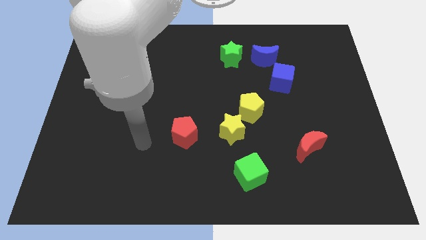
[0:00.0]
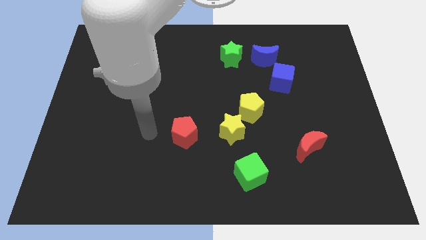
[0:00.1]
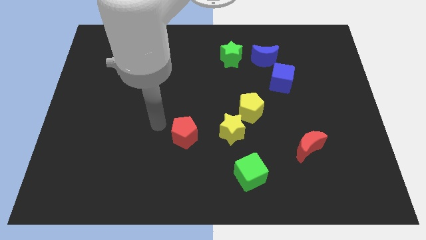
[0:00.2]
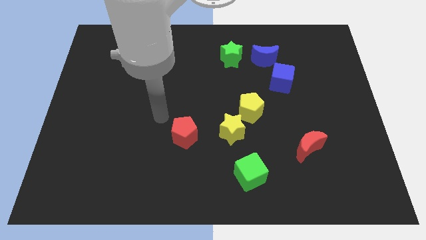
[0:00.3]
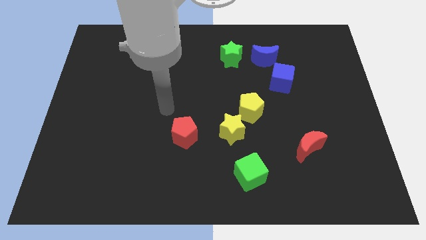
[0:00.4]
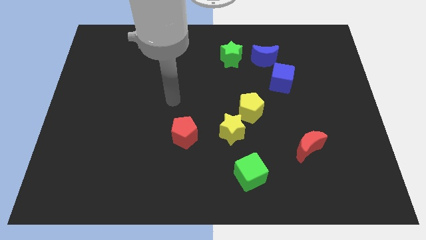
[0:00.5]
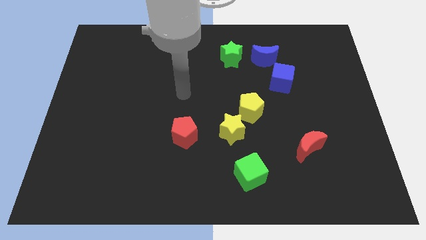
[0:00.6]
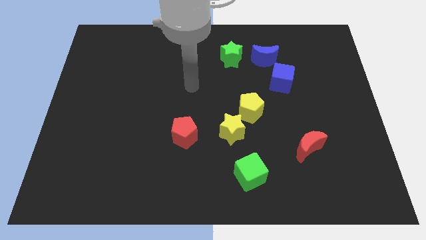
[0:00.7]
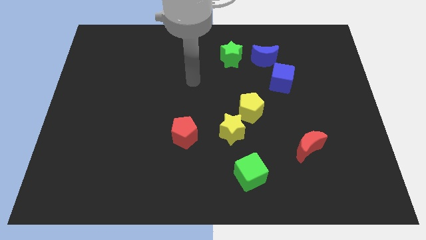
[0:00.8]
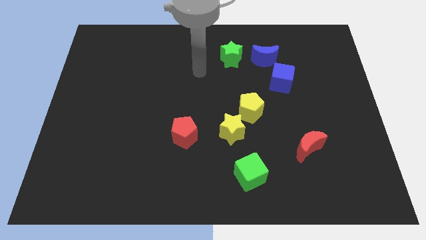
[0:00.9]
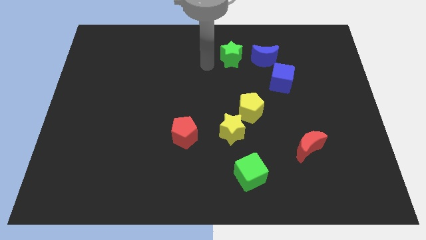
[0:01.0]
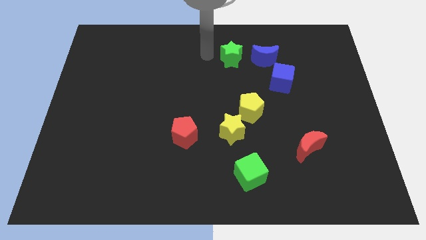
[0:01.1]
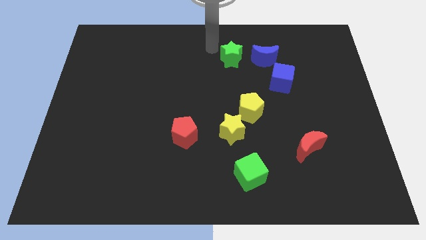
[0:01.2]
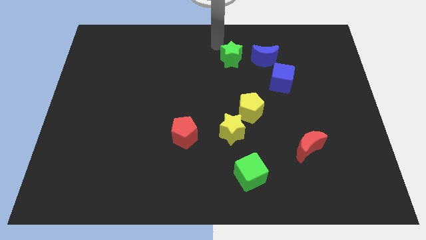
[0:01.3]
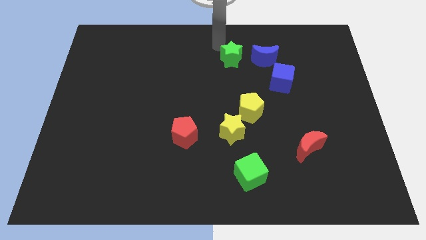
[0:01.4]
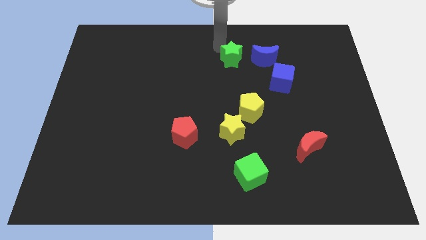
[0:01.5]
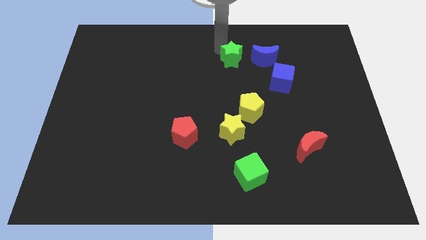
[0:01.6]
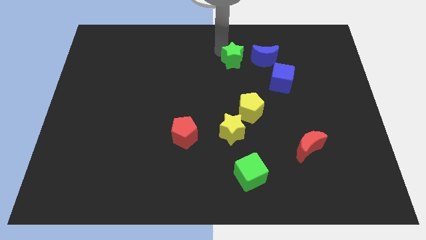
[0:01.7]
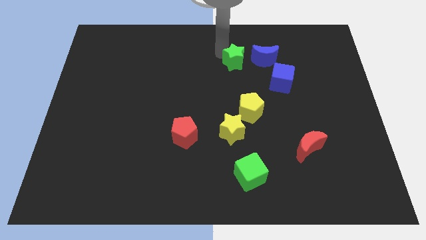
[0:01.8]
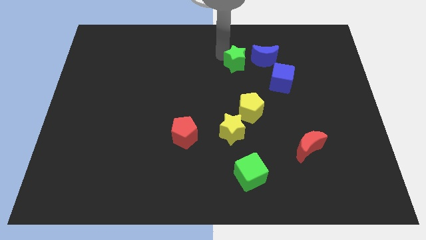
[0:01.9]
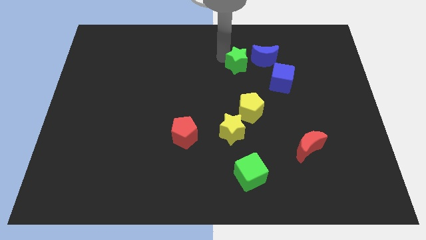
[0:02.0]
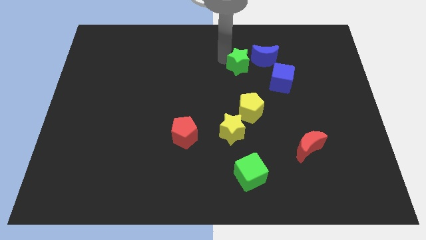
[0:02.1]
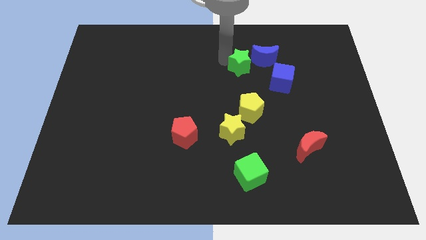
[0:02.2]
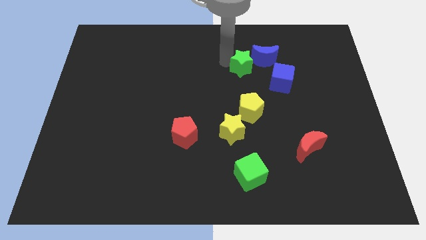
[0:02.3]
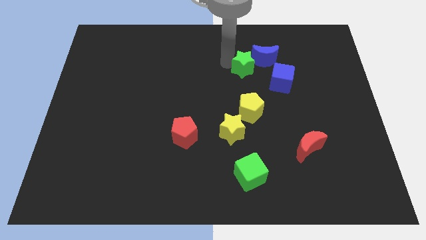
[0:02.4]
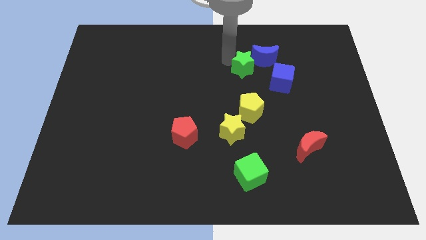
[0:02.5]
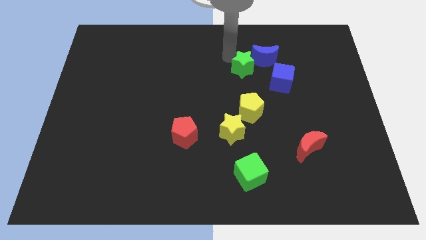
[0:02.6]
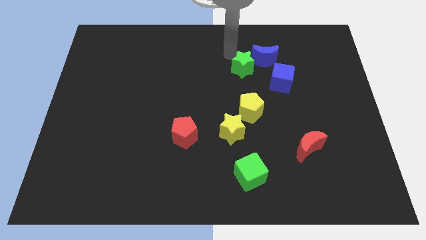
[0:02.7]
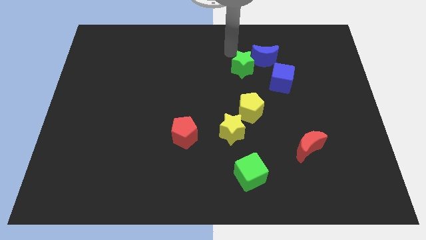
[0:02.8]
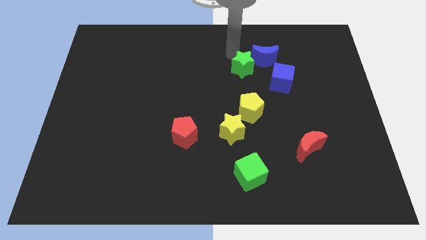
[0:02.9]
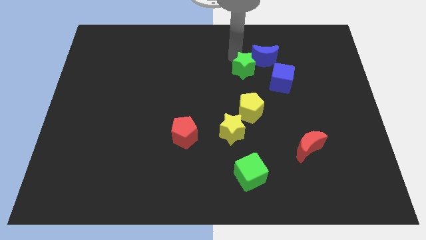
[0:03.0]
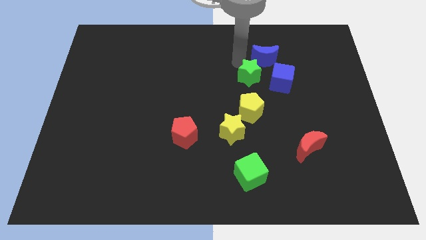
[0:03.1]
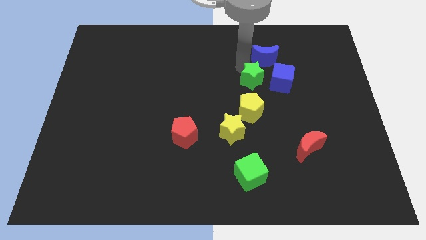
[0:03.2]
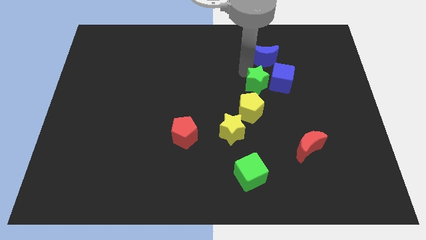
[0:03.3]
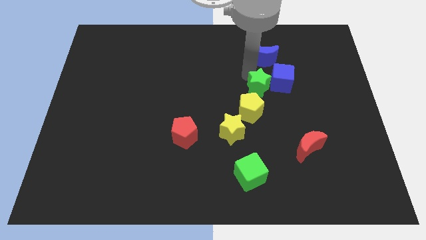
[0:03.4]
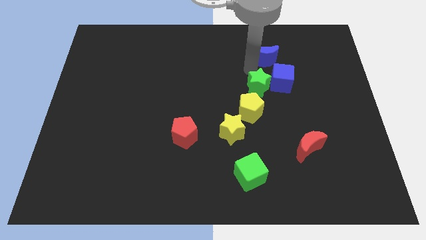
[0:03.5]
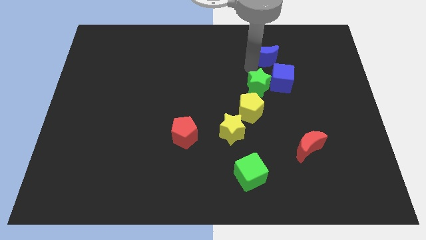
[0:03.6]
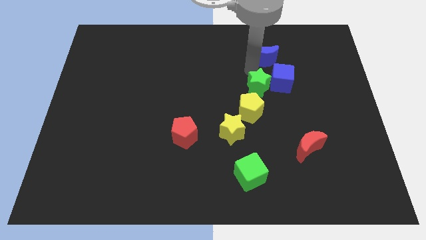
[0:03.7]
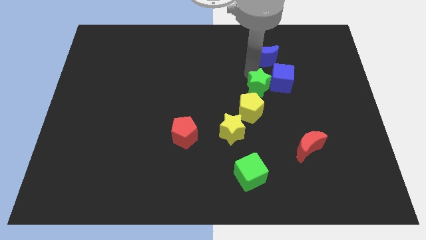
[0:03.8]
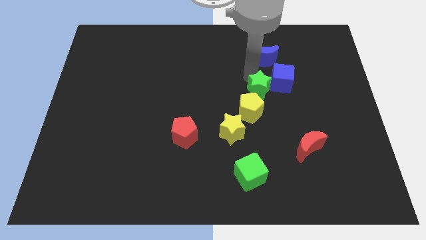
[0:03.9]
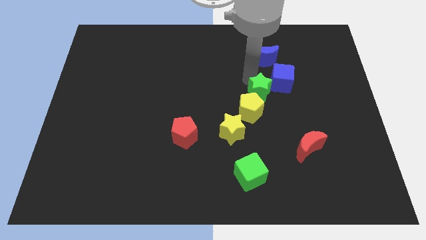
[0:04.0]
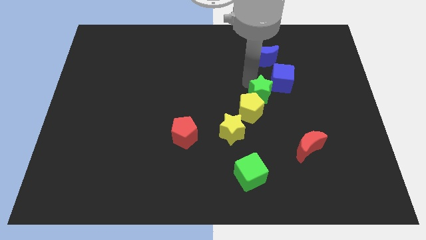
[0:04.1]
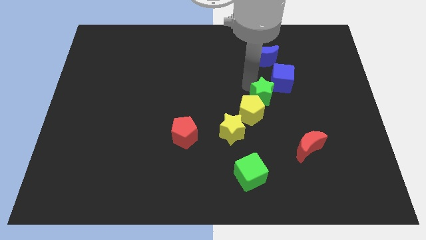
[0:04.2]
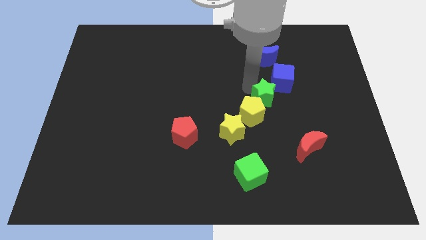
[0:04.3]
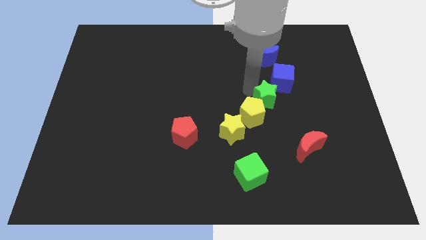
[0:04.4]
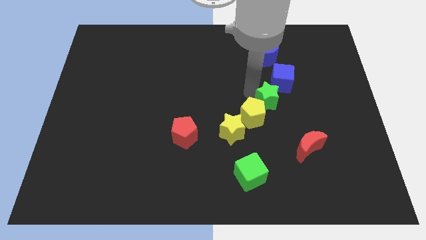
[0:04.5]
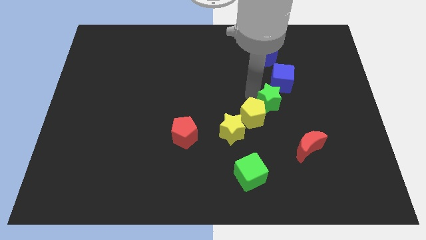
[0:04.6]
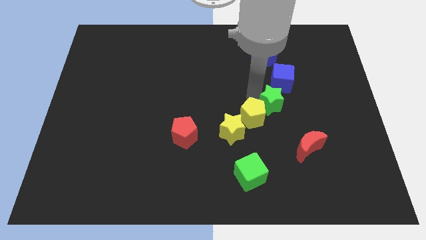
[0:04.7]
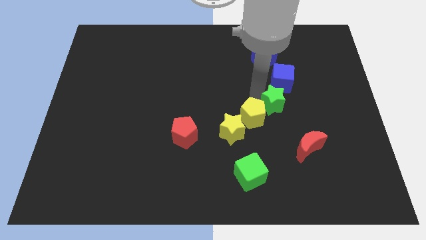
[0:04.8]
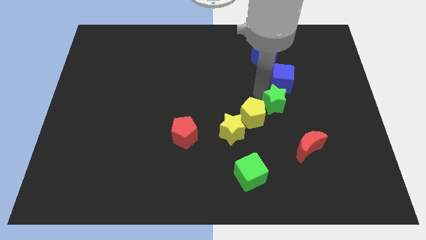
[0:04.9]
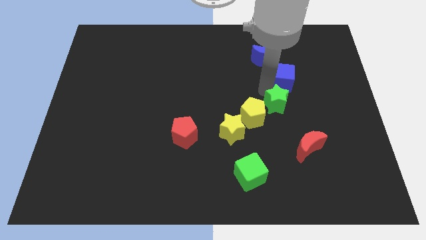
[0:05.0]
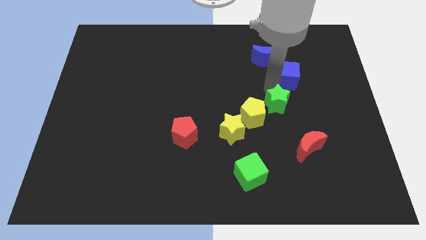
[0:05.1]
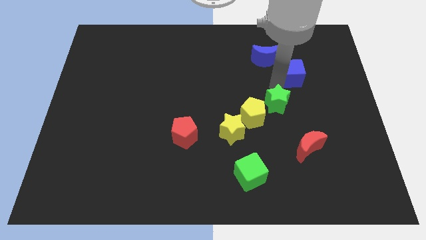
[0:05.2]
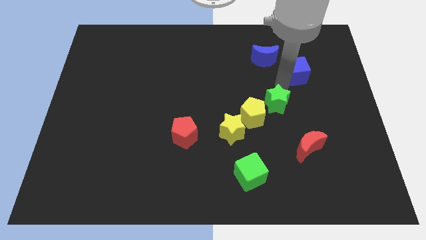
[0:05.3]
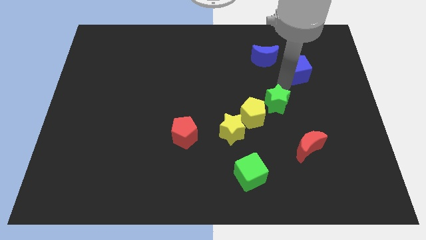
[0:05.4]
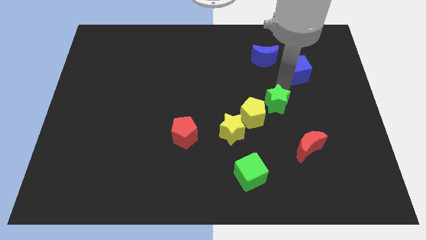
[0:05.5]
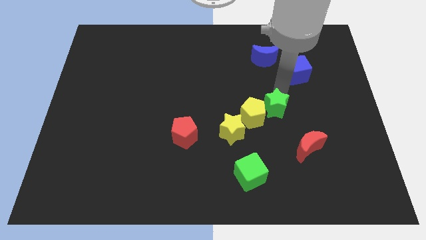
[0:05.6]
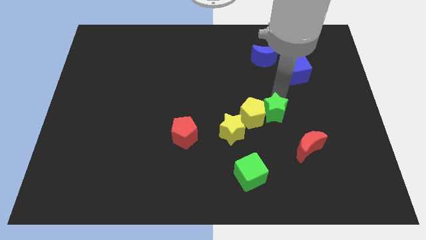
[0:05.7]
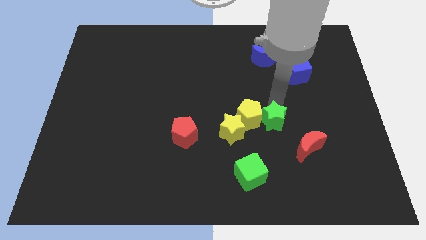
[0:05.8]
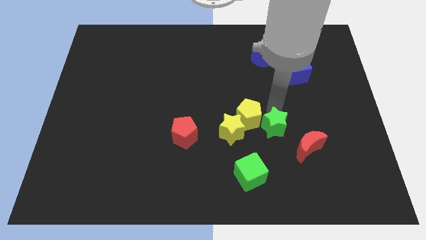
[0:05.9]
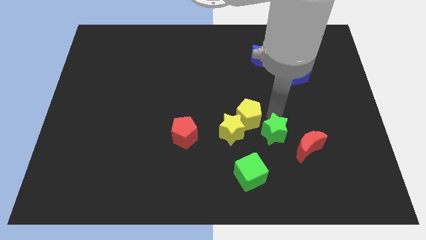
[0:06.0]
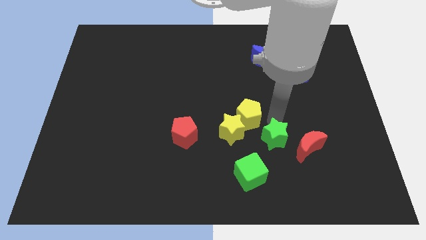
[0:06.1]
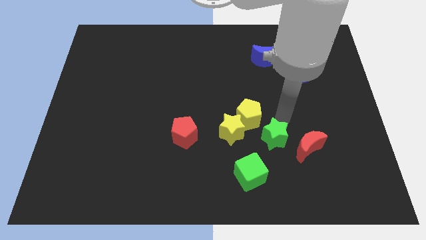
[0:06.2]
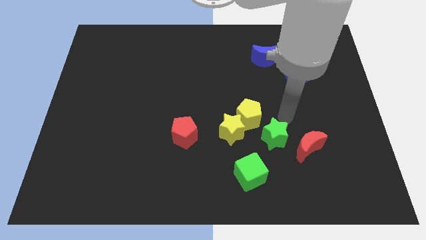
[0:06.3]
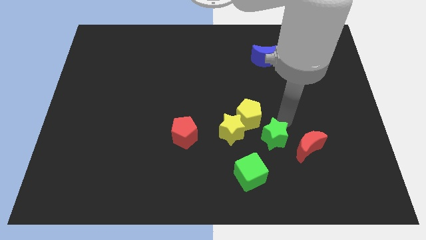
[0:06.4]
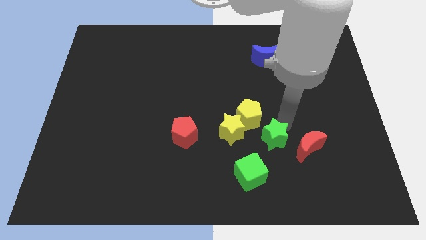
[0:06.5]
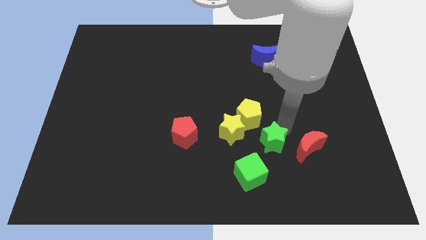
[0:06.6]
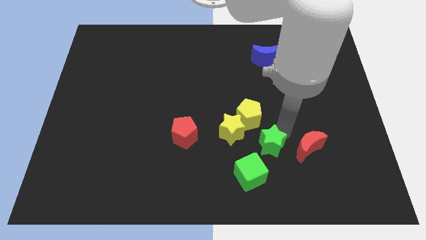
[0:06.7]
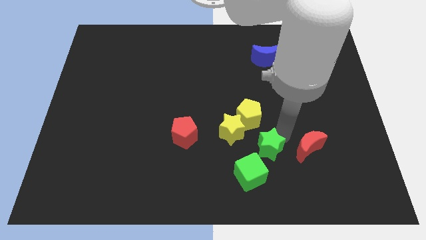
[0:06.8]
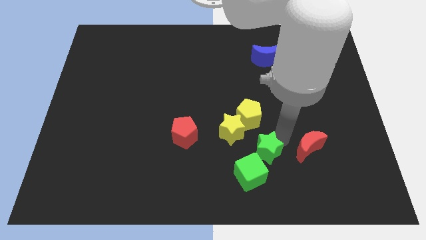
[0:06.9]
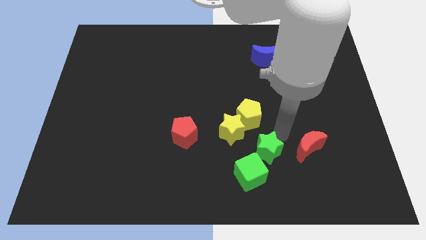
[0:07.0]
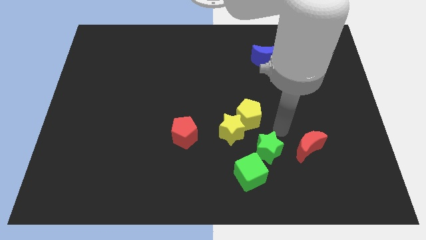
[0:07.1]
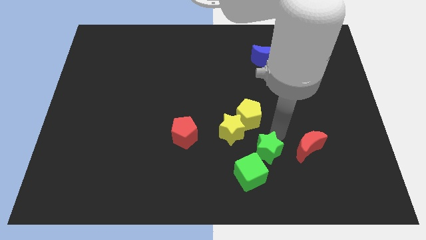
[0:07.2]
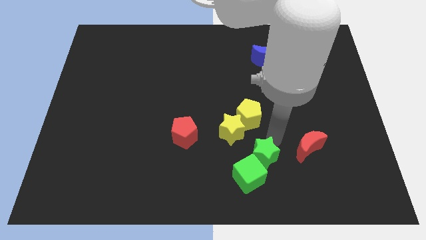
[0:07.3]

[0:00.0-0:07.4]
put the green star next to the green cube
